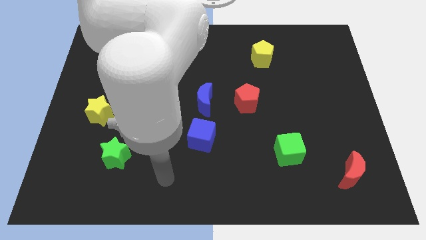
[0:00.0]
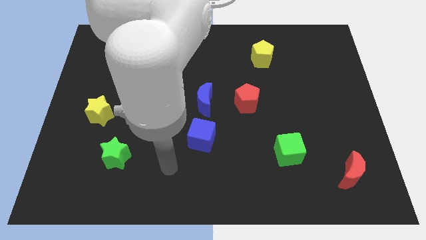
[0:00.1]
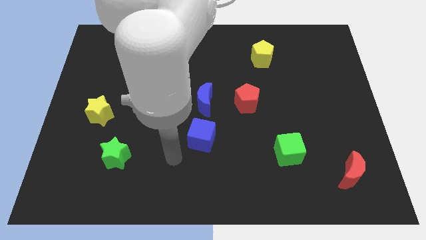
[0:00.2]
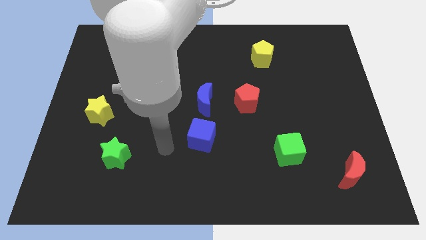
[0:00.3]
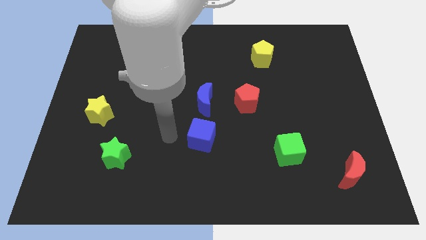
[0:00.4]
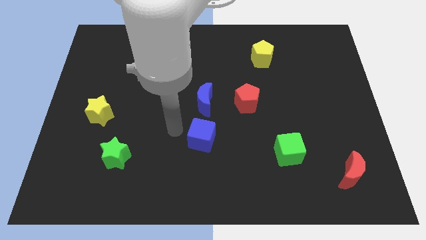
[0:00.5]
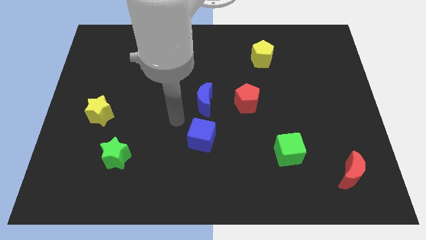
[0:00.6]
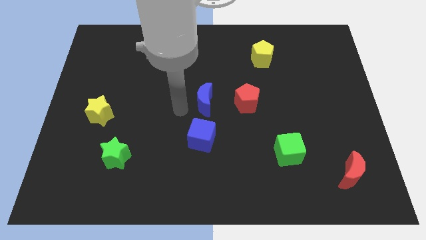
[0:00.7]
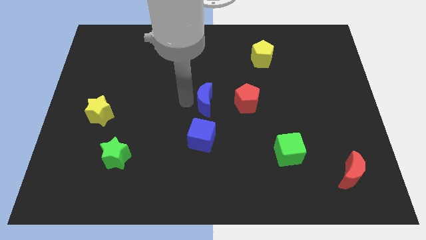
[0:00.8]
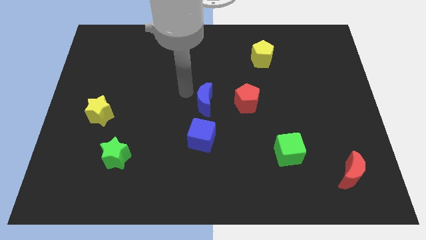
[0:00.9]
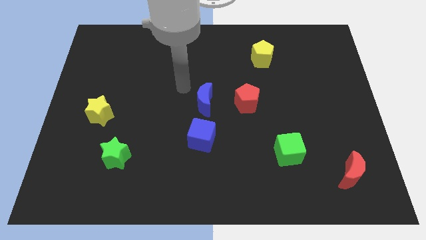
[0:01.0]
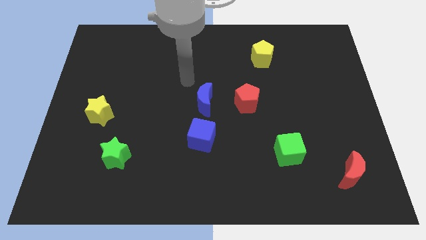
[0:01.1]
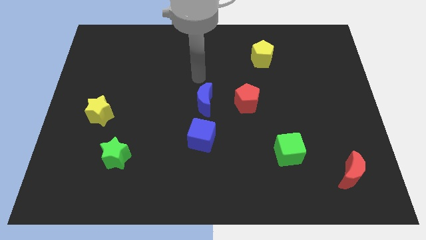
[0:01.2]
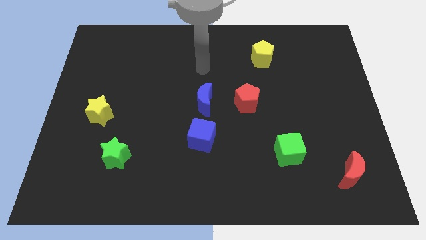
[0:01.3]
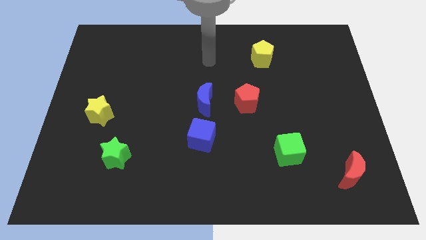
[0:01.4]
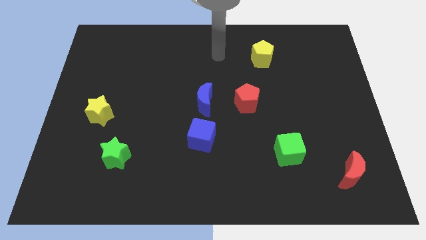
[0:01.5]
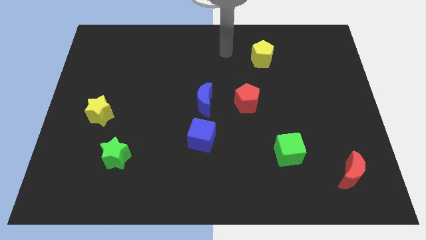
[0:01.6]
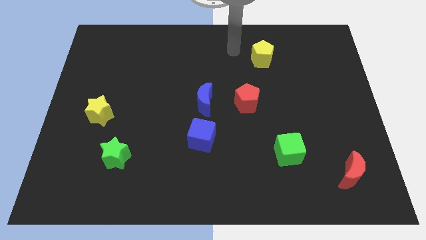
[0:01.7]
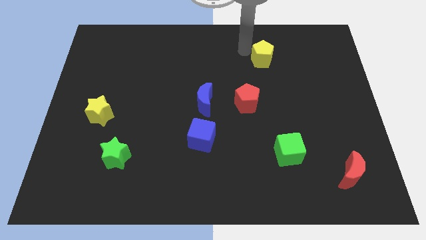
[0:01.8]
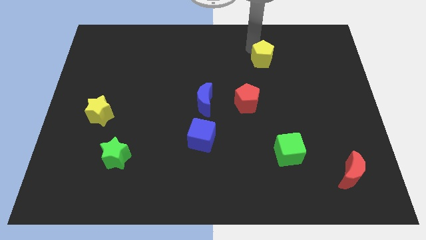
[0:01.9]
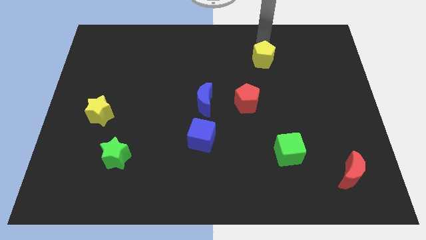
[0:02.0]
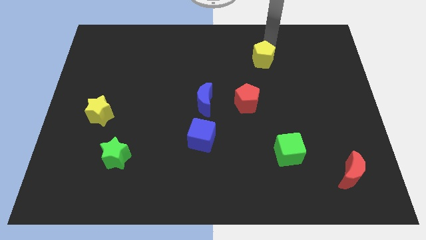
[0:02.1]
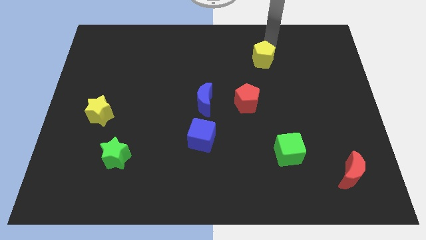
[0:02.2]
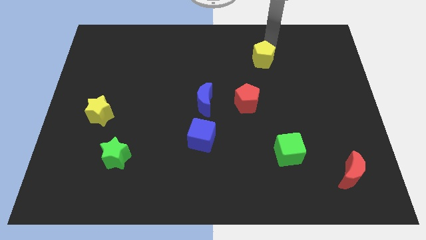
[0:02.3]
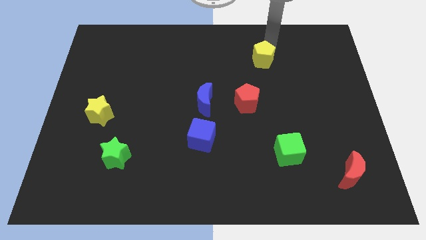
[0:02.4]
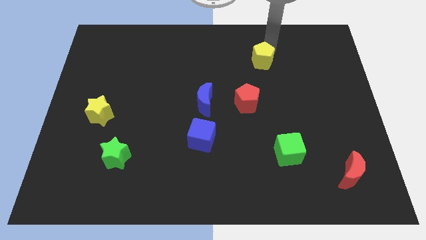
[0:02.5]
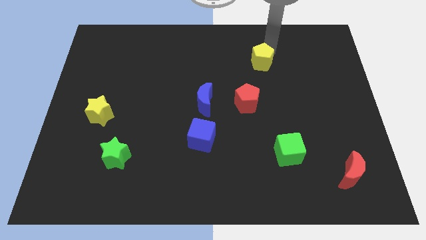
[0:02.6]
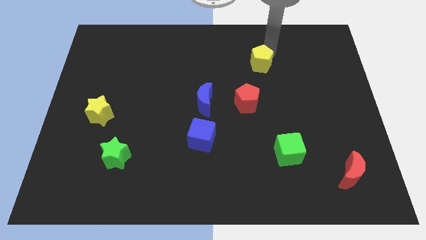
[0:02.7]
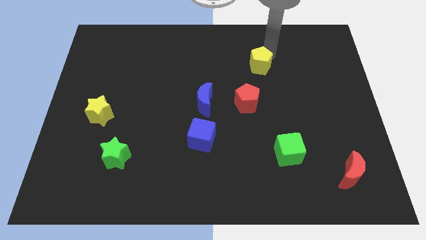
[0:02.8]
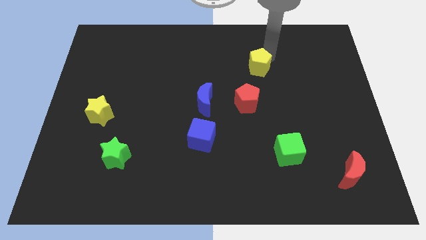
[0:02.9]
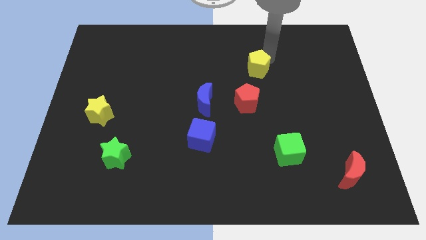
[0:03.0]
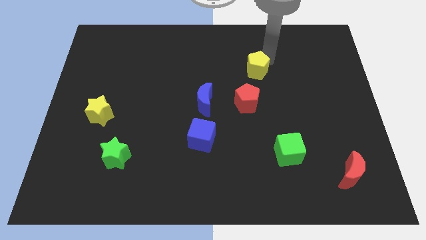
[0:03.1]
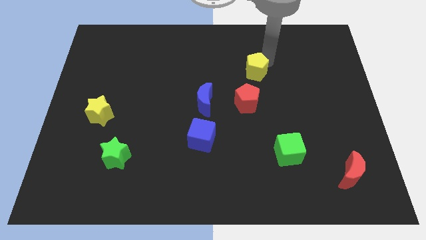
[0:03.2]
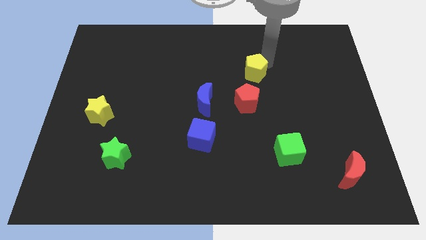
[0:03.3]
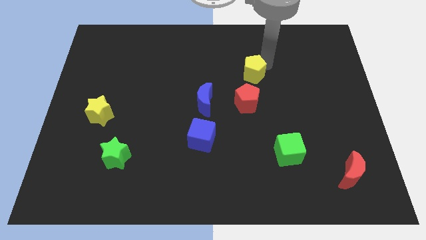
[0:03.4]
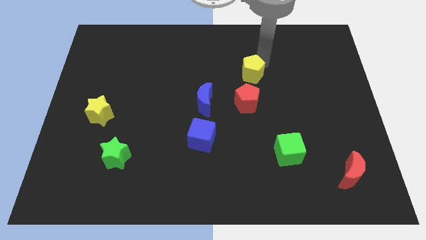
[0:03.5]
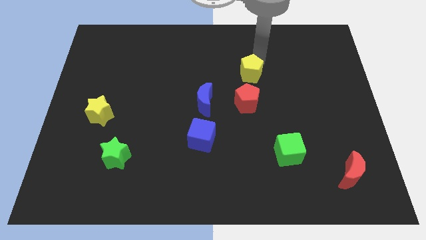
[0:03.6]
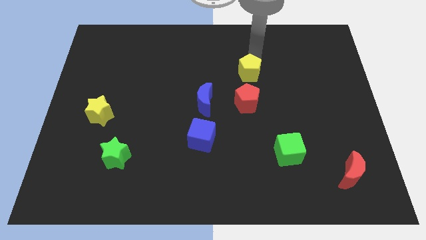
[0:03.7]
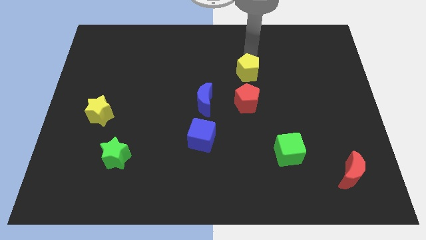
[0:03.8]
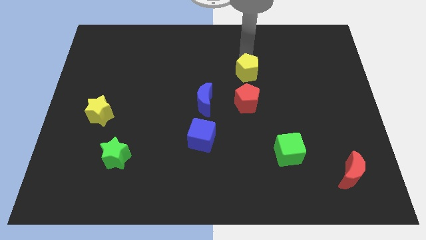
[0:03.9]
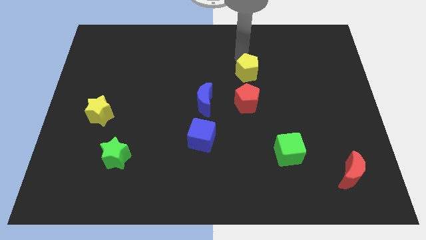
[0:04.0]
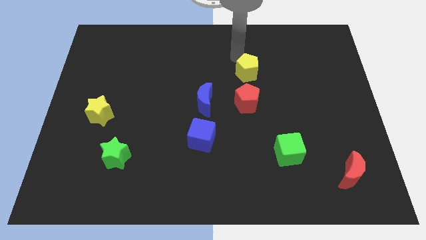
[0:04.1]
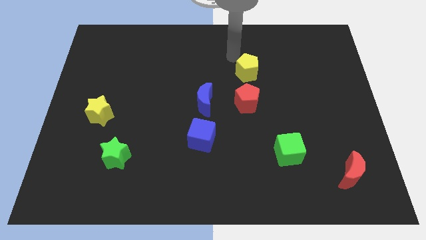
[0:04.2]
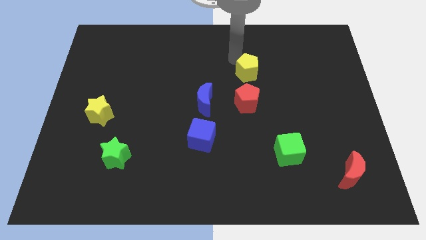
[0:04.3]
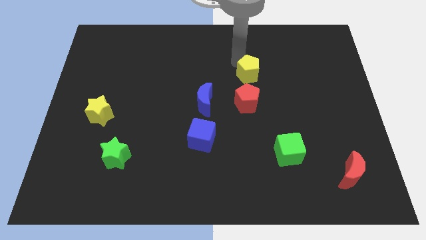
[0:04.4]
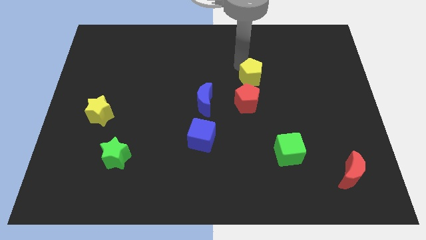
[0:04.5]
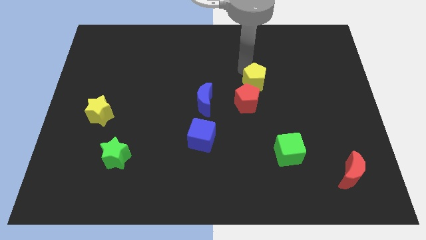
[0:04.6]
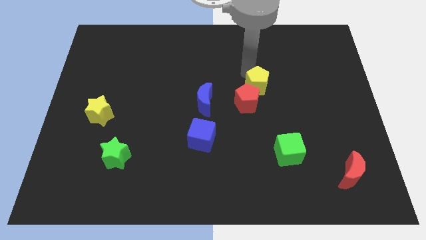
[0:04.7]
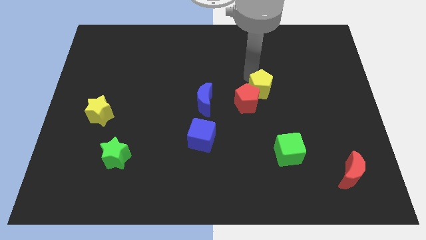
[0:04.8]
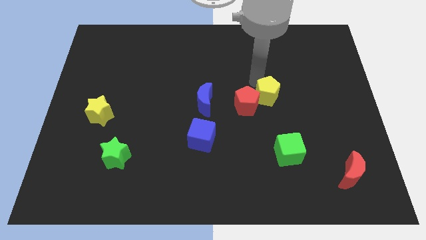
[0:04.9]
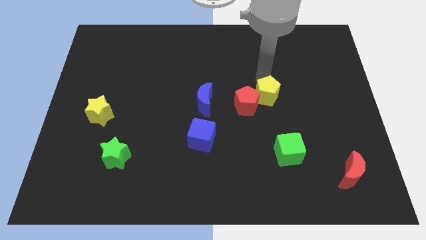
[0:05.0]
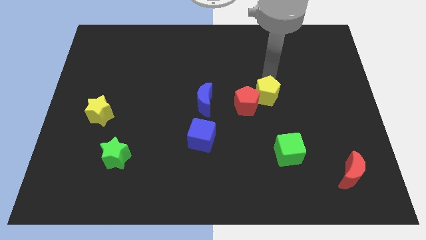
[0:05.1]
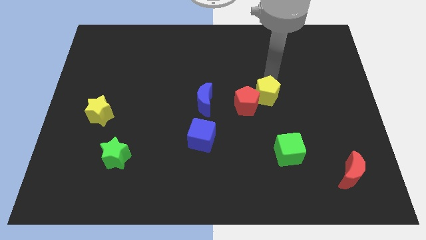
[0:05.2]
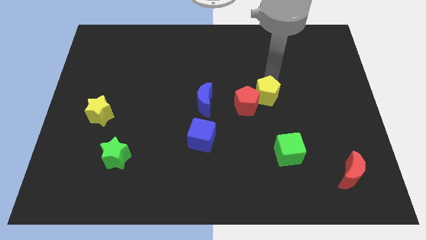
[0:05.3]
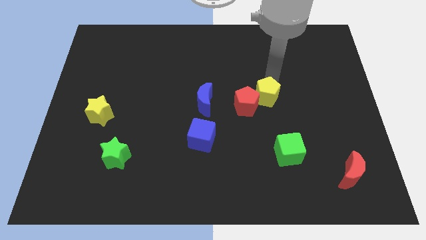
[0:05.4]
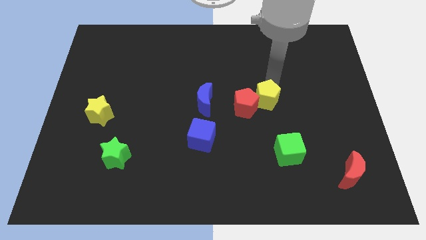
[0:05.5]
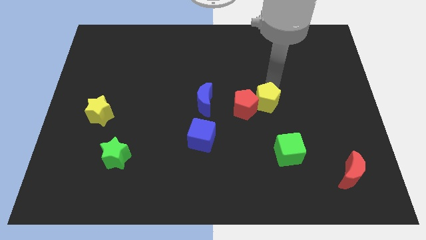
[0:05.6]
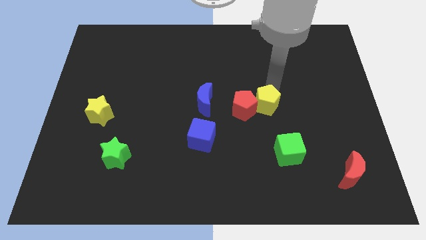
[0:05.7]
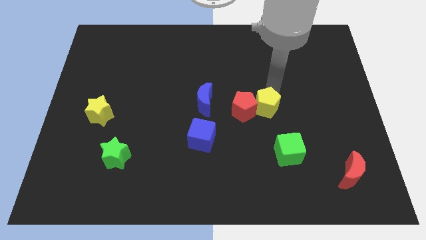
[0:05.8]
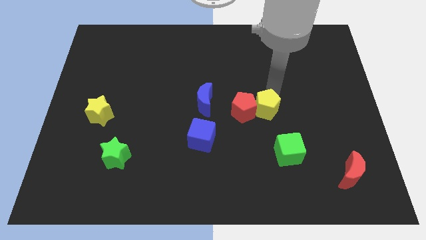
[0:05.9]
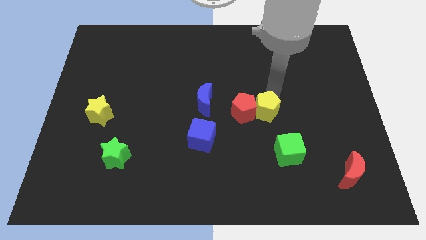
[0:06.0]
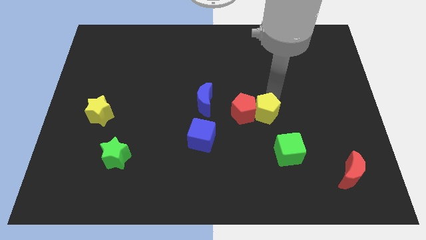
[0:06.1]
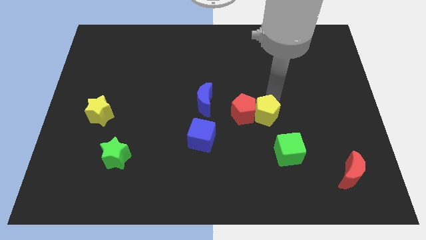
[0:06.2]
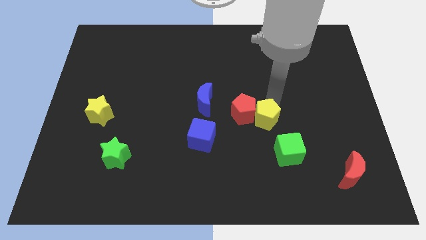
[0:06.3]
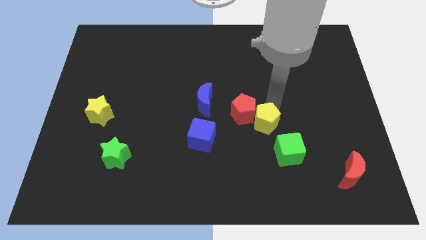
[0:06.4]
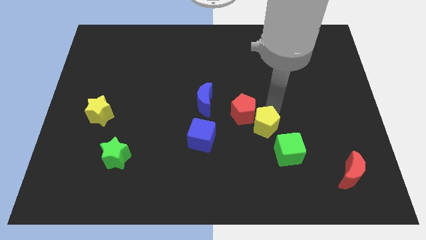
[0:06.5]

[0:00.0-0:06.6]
put the yellow pentagon to the bottom side of the red pentagon

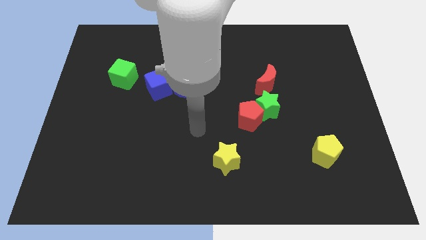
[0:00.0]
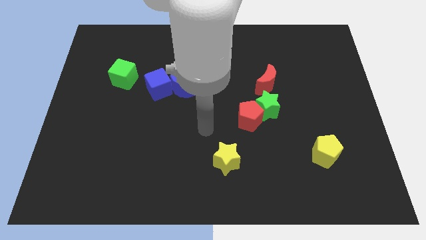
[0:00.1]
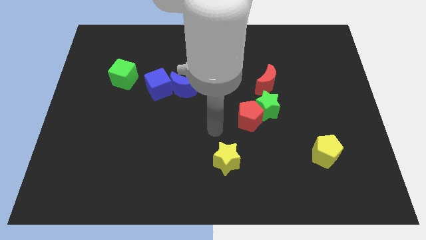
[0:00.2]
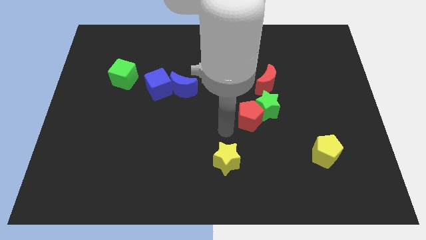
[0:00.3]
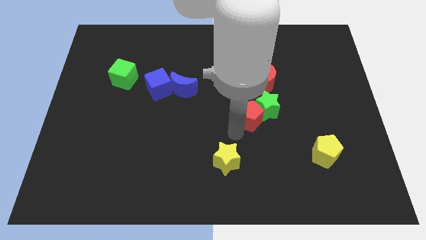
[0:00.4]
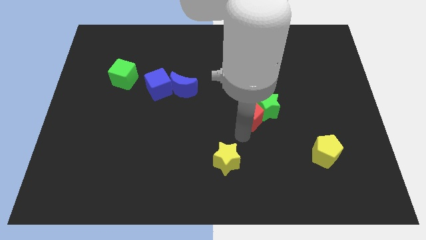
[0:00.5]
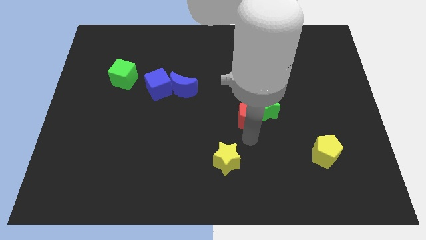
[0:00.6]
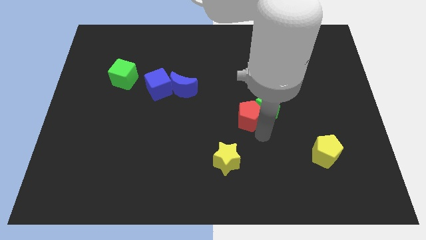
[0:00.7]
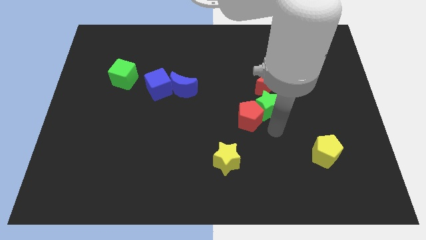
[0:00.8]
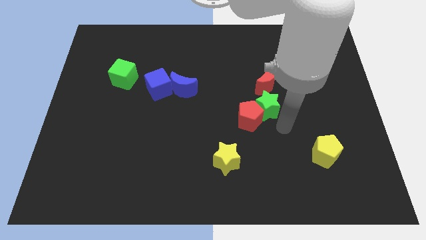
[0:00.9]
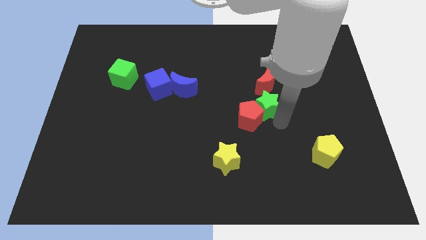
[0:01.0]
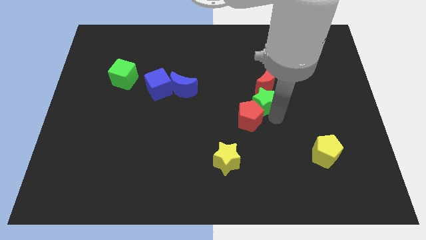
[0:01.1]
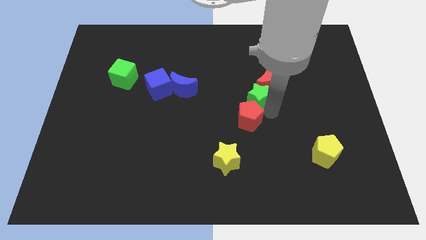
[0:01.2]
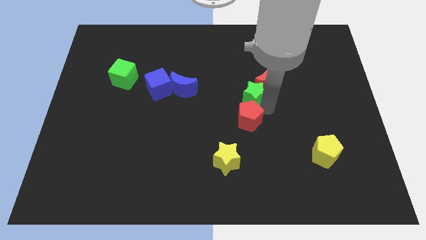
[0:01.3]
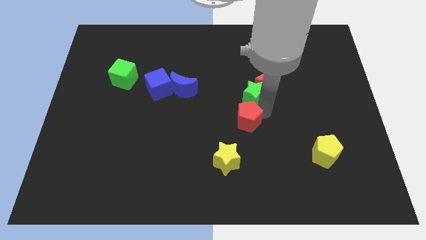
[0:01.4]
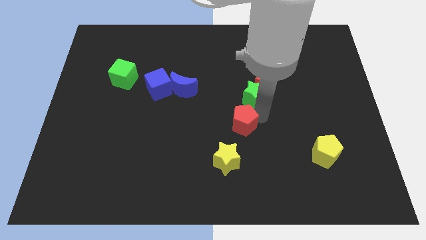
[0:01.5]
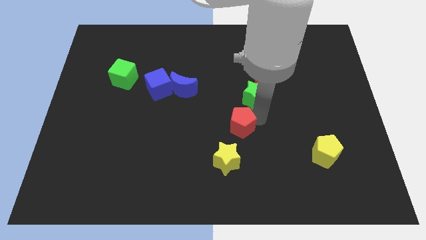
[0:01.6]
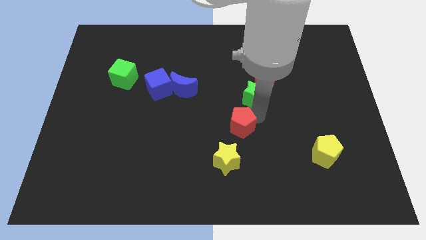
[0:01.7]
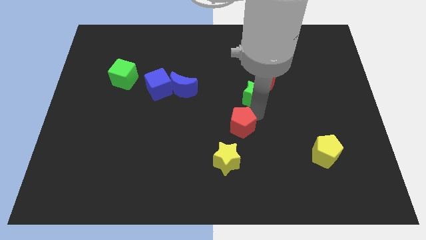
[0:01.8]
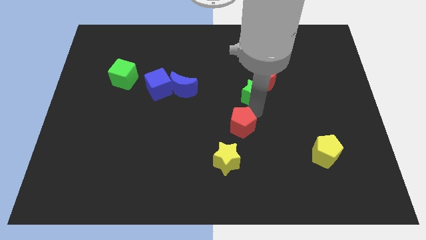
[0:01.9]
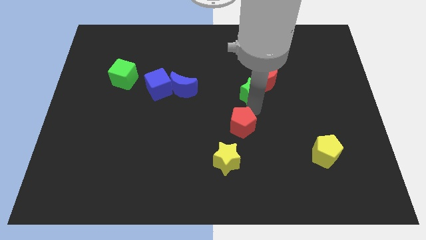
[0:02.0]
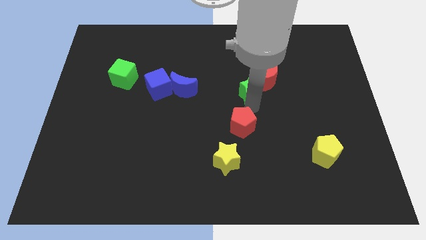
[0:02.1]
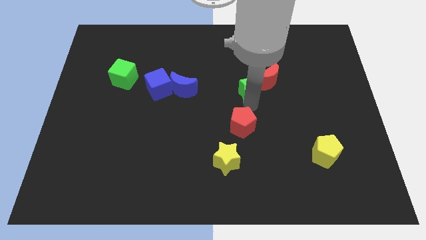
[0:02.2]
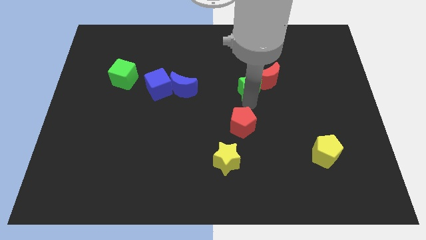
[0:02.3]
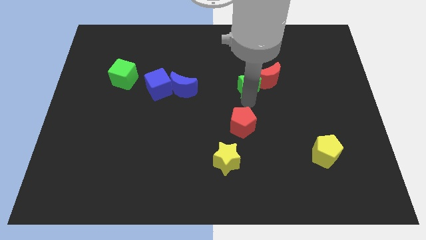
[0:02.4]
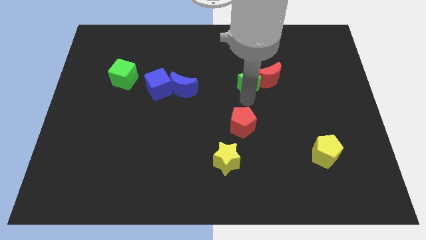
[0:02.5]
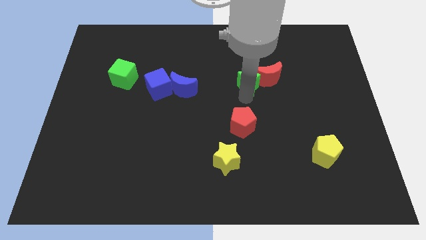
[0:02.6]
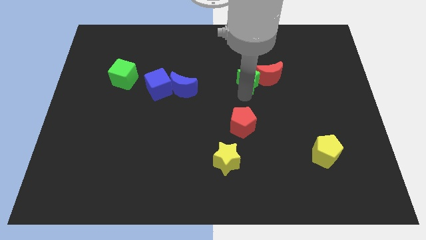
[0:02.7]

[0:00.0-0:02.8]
put the green star to the top left of the red moon
